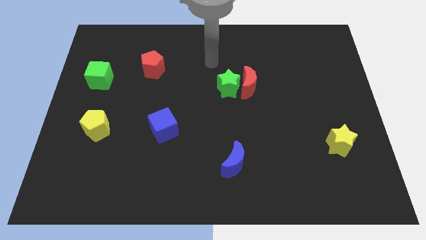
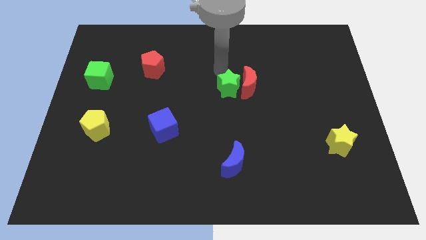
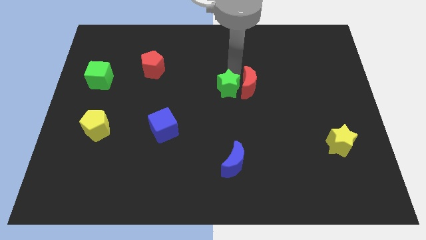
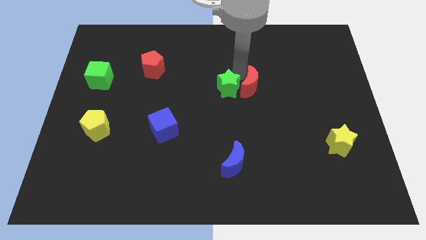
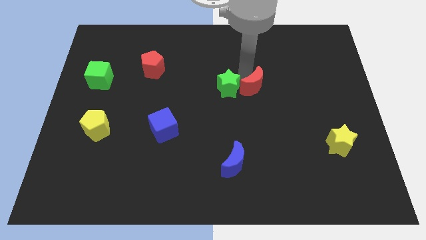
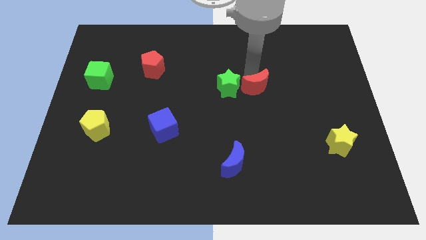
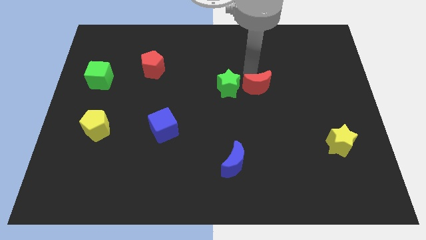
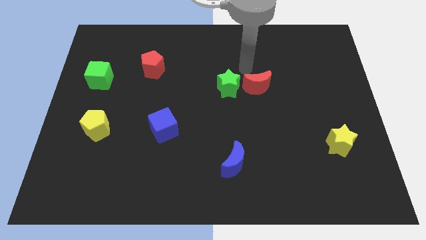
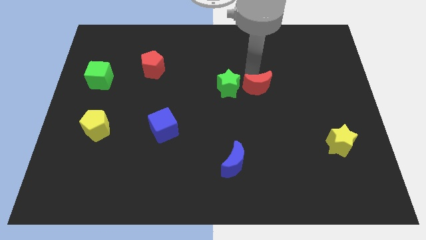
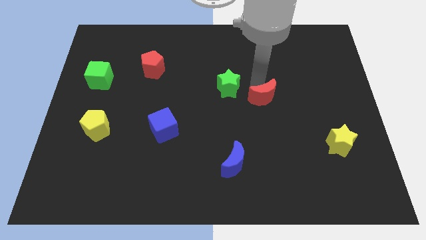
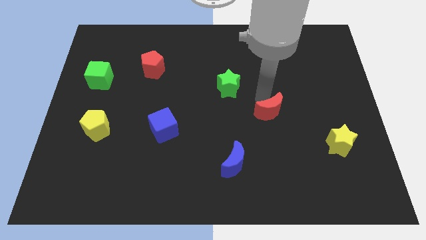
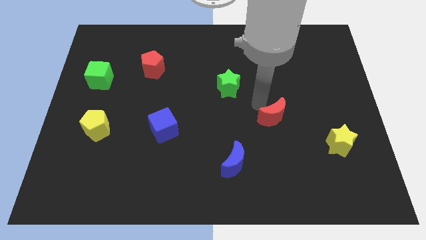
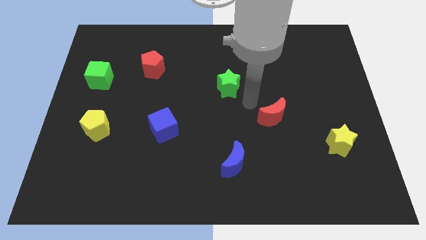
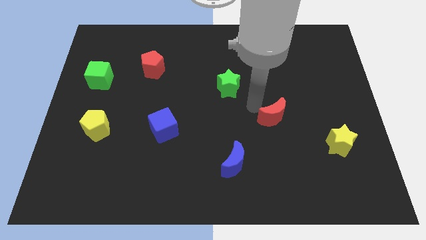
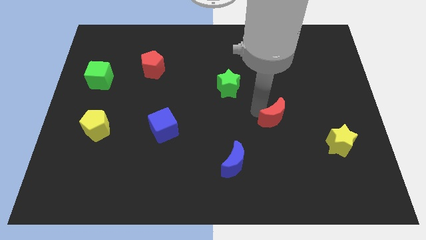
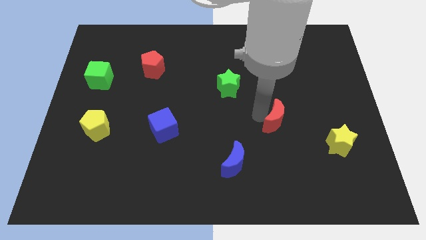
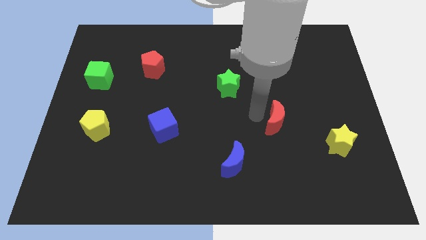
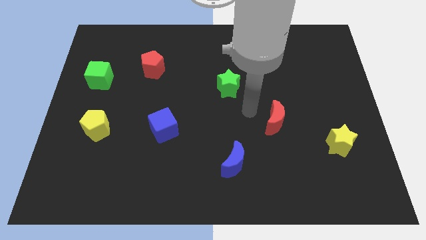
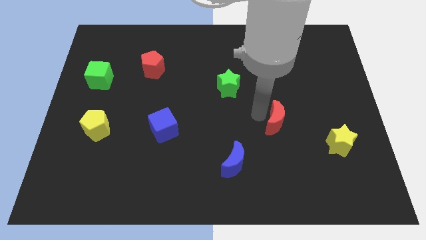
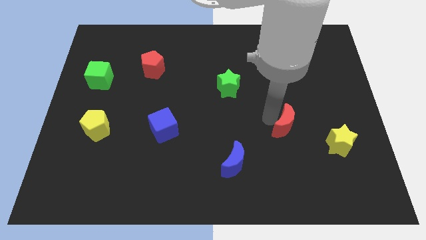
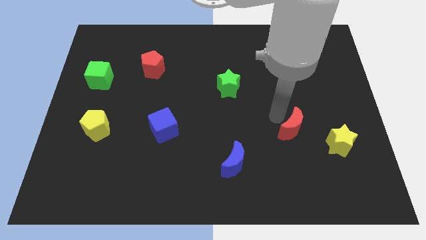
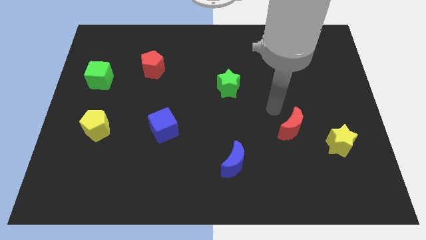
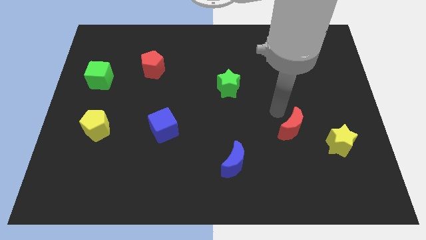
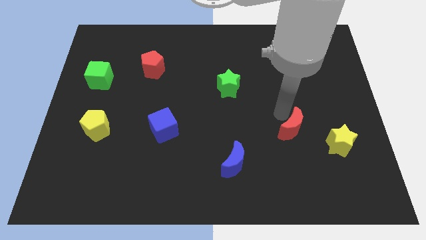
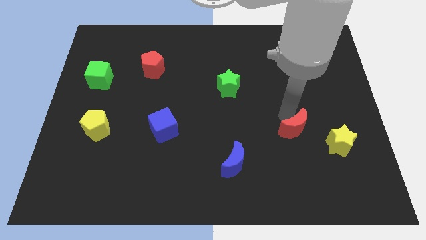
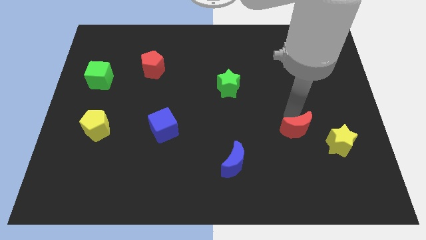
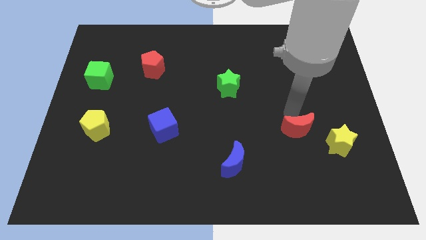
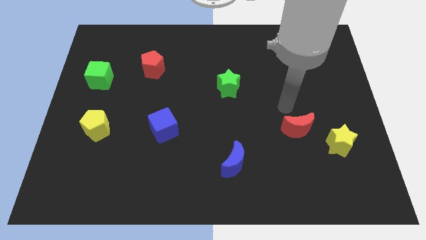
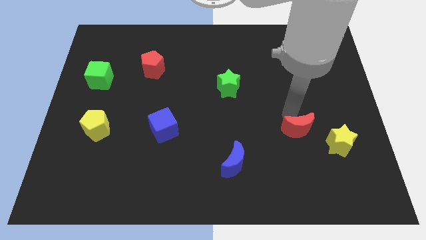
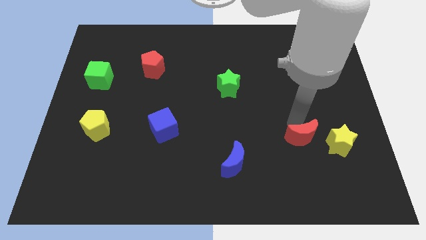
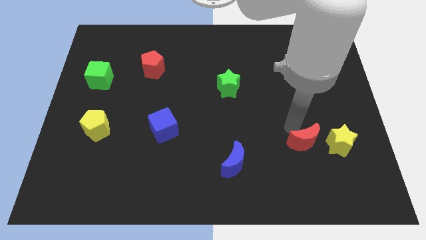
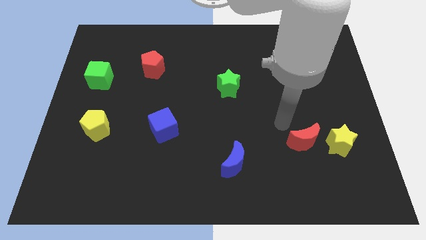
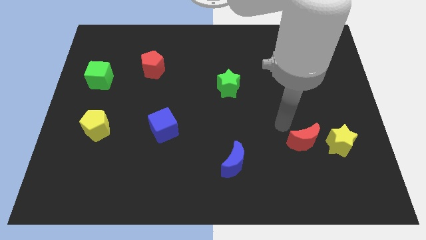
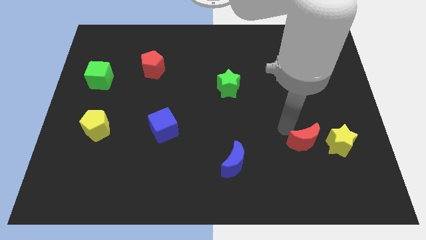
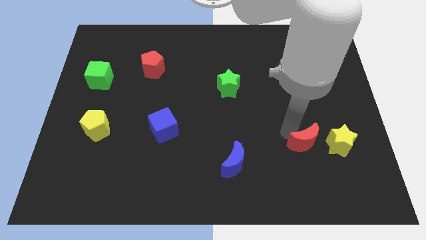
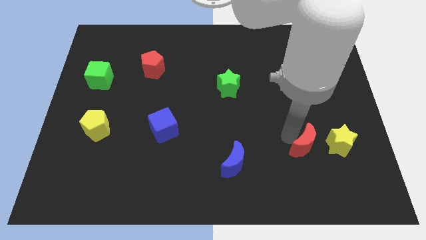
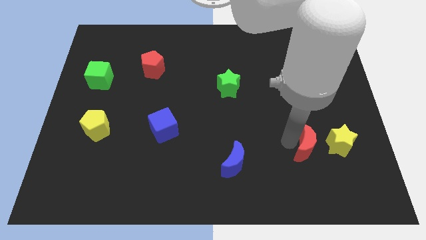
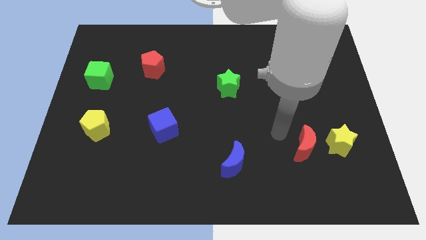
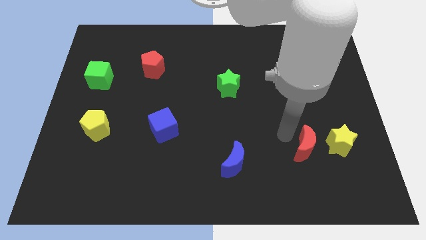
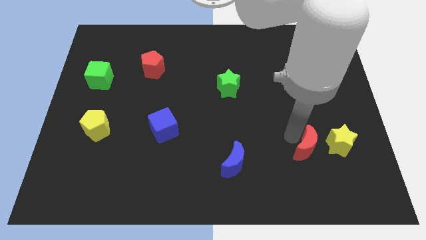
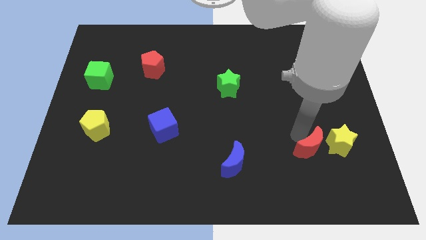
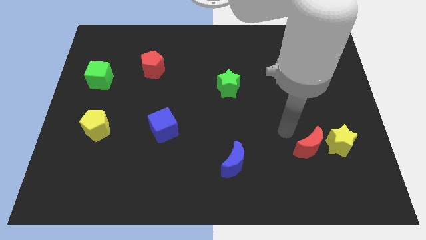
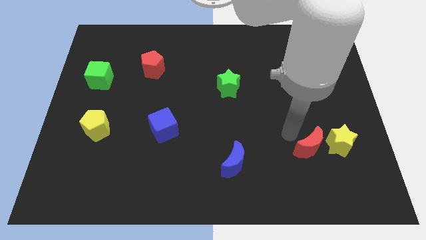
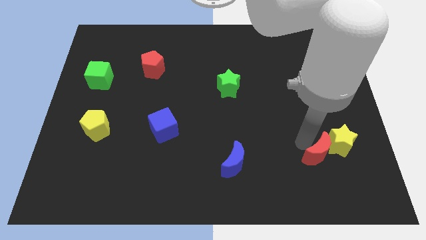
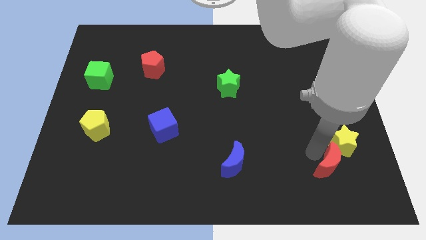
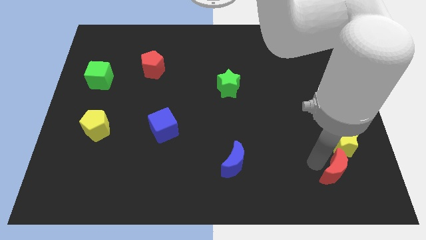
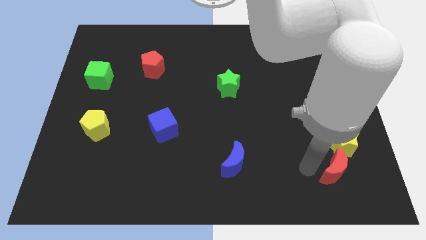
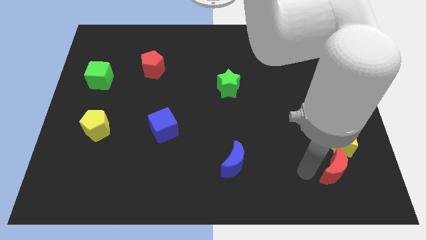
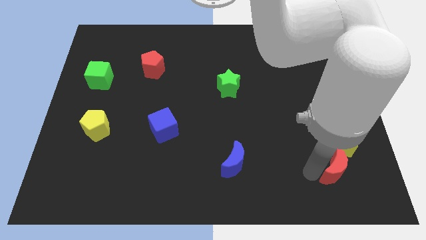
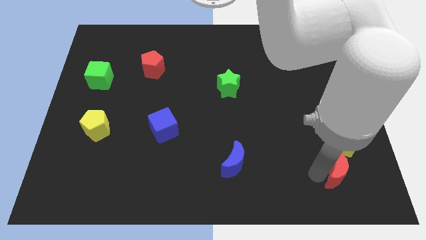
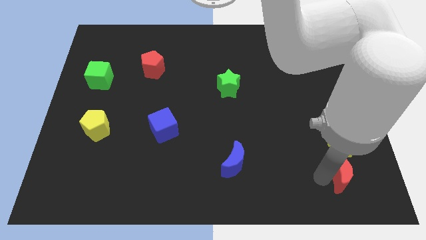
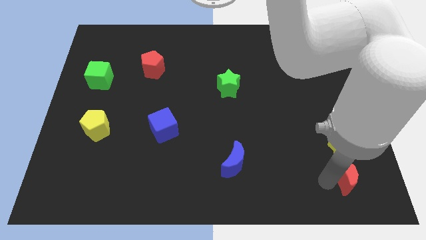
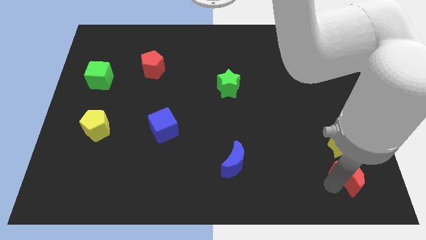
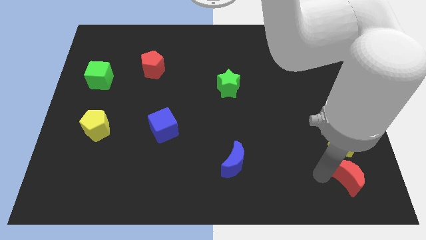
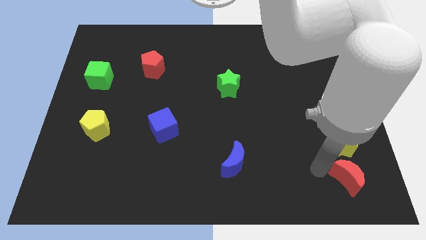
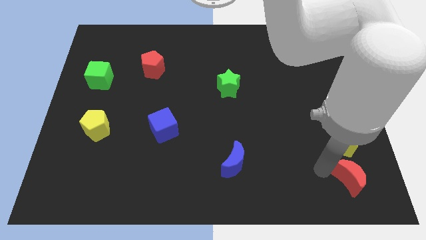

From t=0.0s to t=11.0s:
push the red moon to the bottom right of the board
